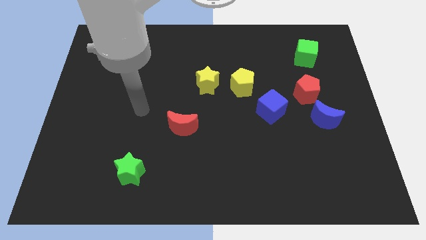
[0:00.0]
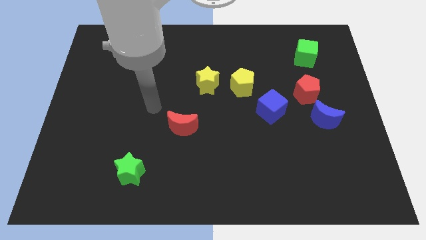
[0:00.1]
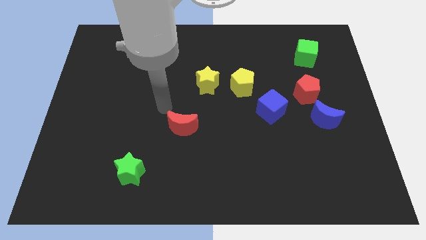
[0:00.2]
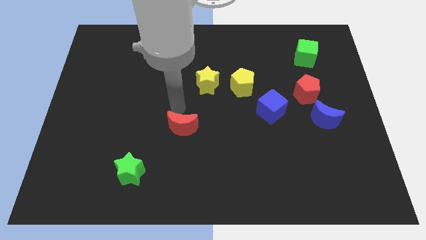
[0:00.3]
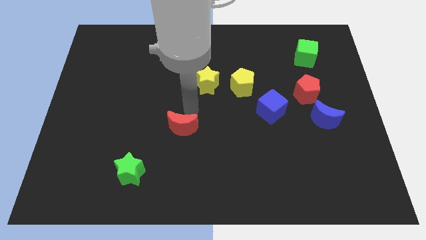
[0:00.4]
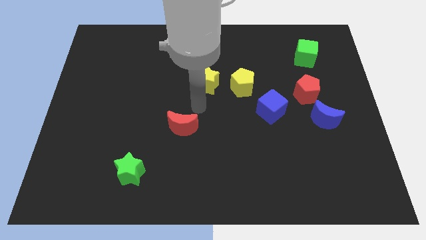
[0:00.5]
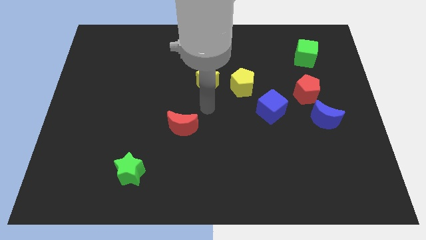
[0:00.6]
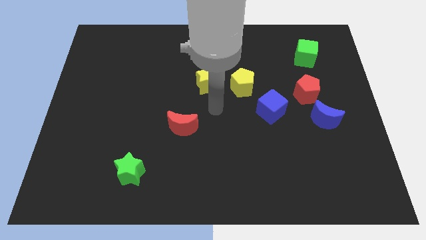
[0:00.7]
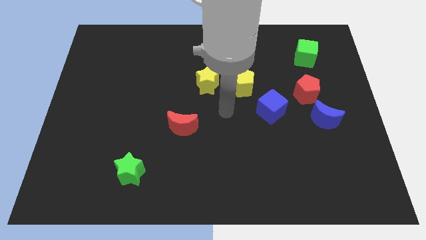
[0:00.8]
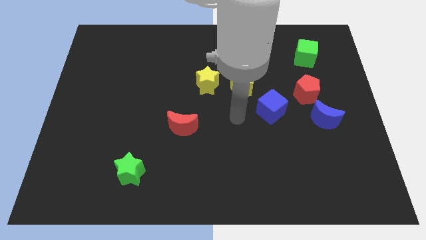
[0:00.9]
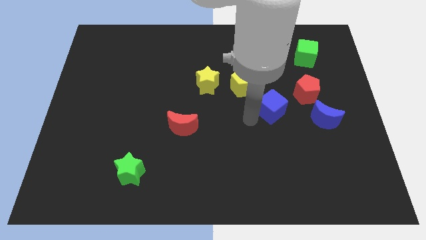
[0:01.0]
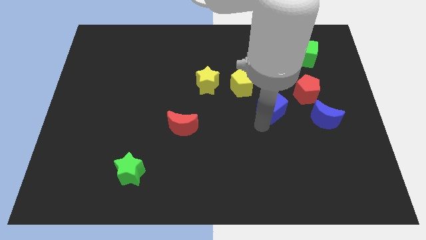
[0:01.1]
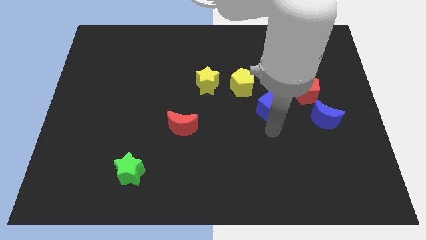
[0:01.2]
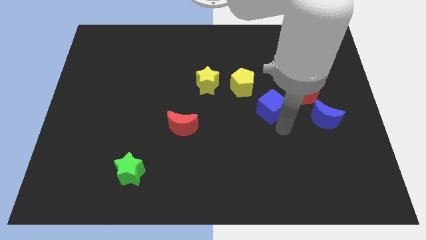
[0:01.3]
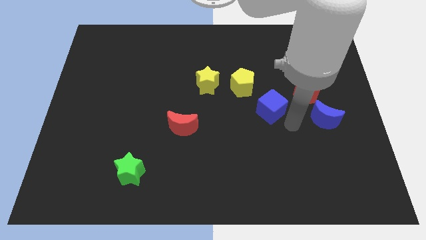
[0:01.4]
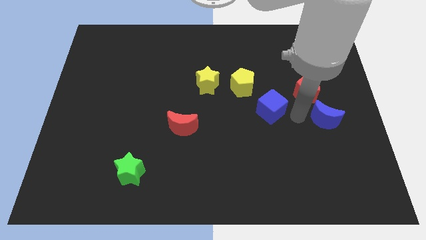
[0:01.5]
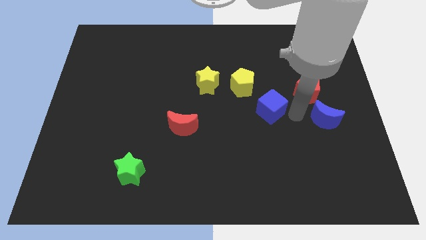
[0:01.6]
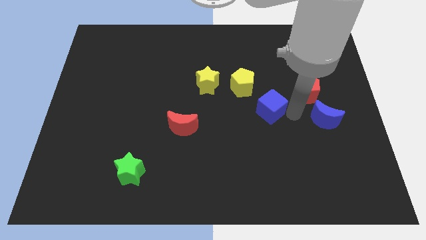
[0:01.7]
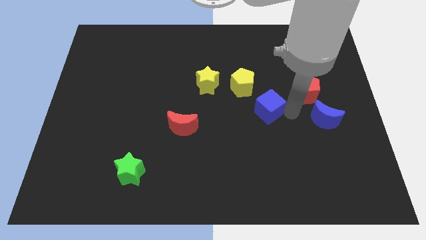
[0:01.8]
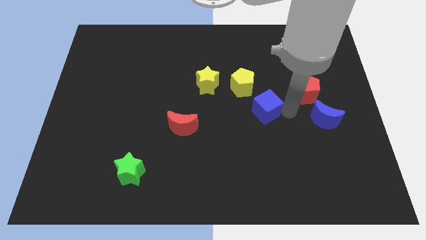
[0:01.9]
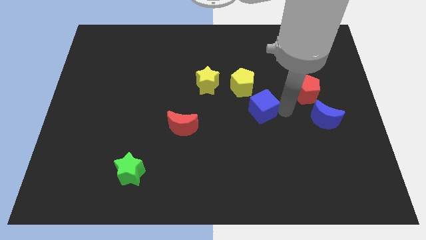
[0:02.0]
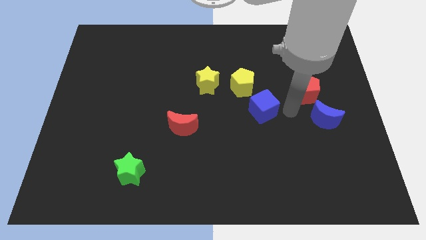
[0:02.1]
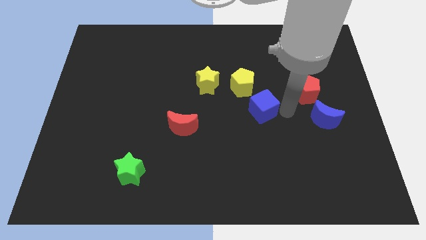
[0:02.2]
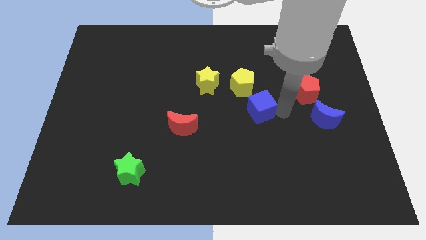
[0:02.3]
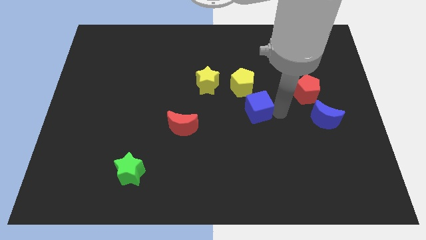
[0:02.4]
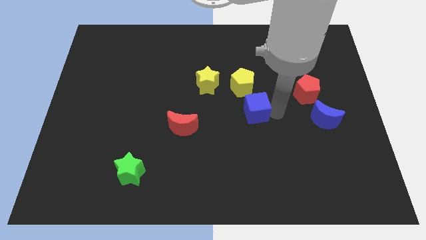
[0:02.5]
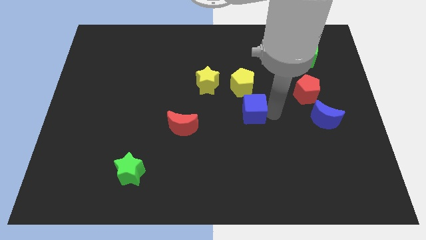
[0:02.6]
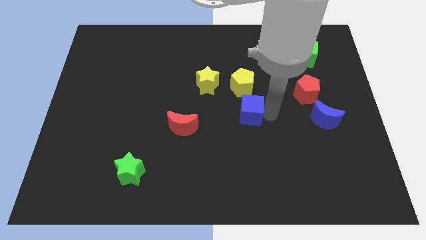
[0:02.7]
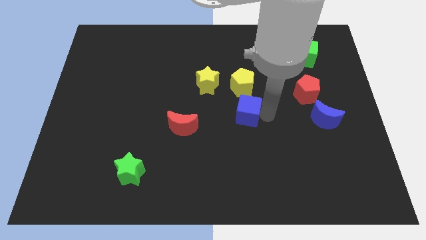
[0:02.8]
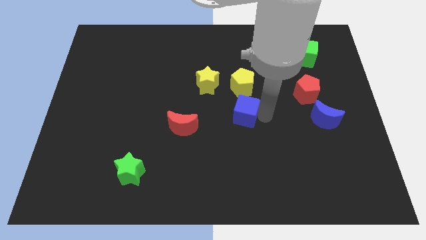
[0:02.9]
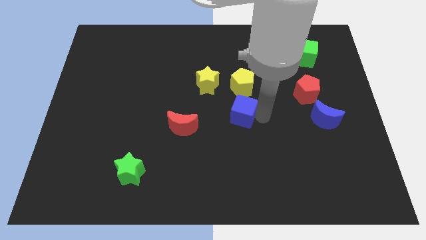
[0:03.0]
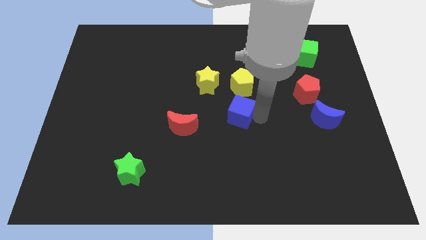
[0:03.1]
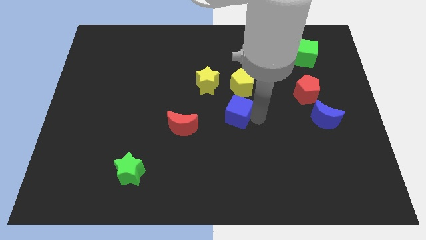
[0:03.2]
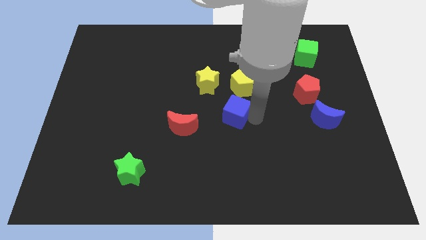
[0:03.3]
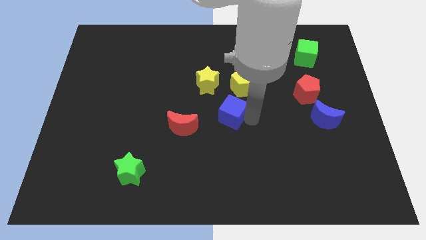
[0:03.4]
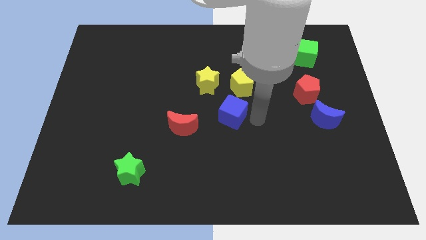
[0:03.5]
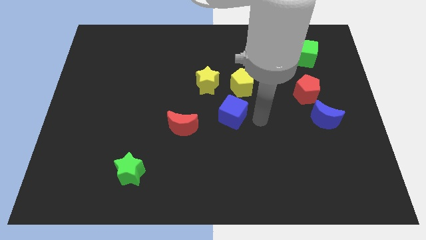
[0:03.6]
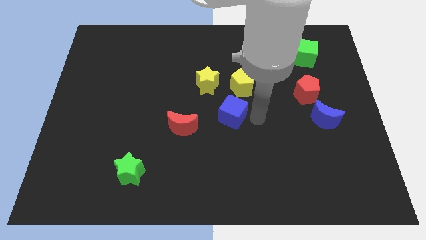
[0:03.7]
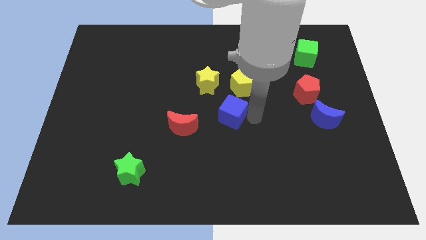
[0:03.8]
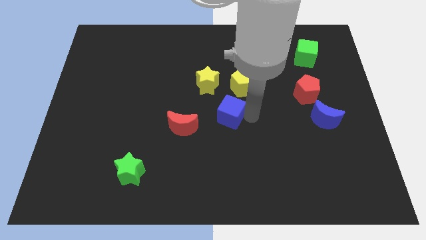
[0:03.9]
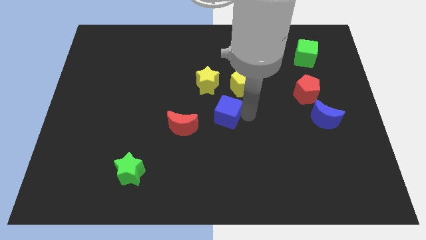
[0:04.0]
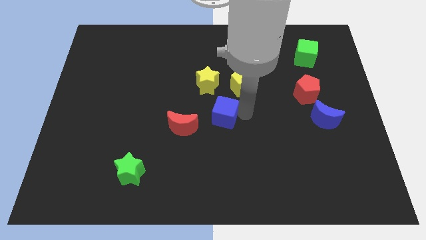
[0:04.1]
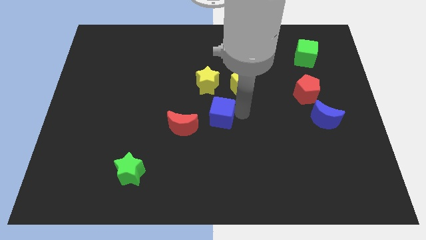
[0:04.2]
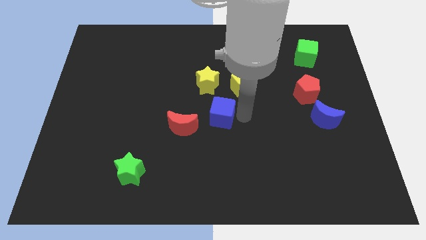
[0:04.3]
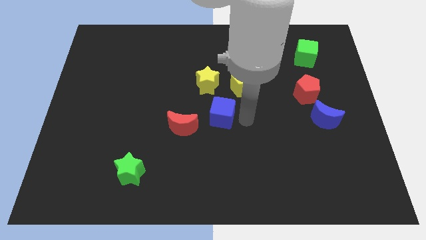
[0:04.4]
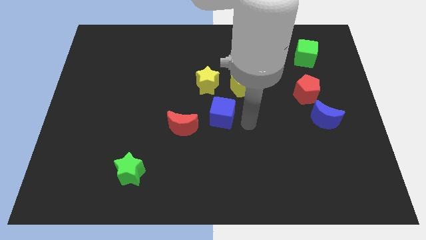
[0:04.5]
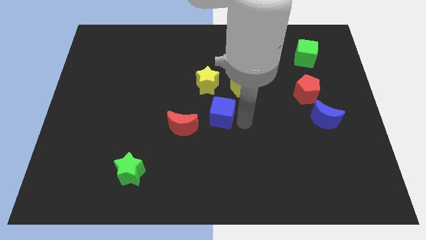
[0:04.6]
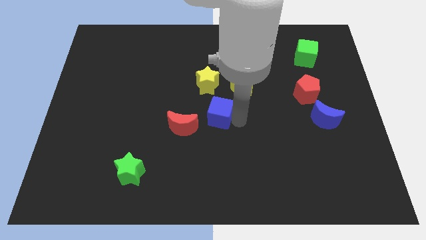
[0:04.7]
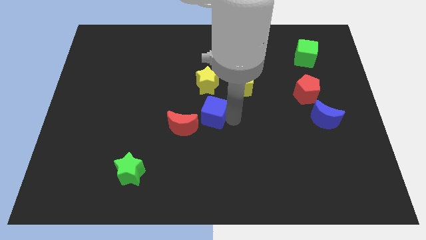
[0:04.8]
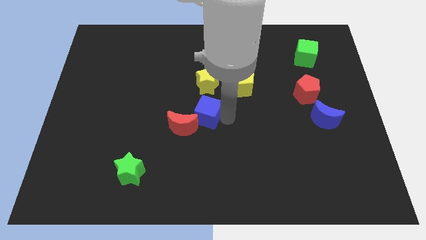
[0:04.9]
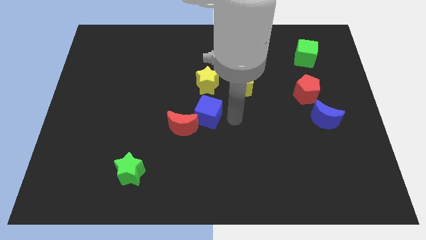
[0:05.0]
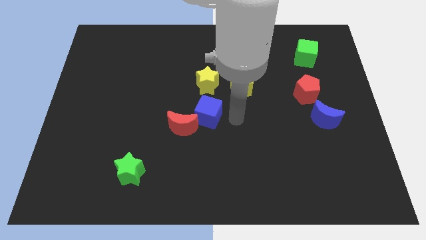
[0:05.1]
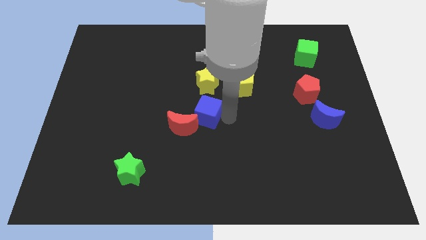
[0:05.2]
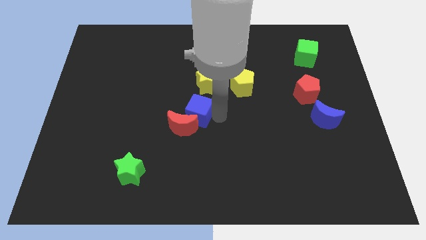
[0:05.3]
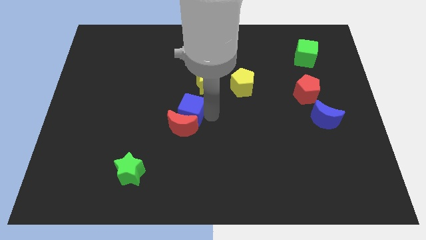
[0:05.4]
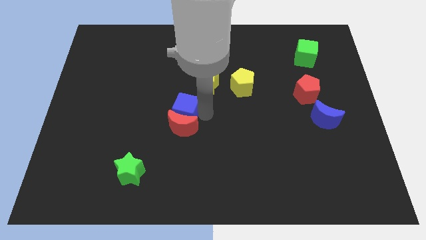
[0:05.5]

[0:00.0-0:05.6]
move the blue cube to the left

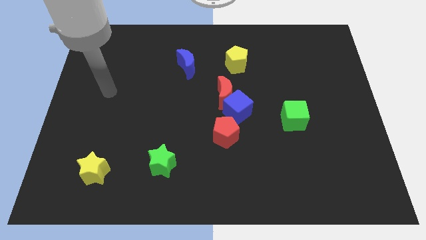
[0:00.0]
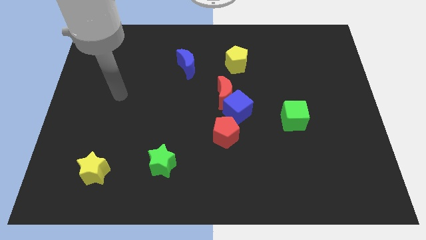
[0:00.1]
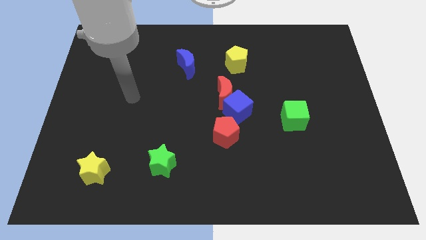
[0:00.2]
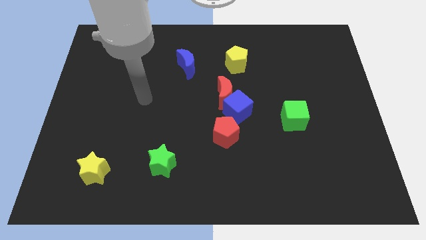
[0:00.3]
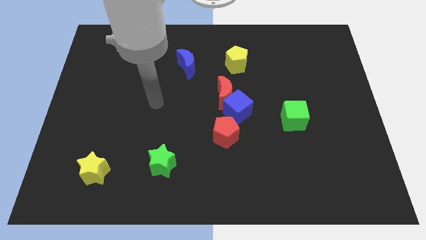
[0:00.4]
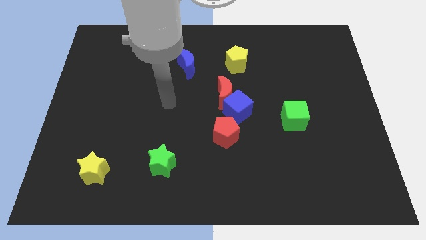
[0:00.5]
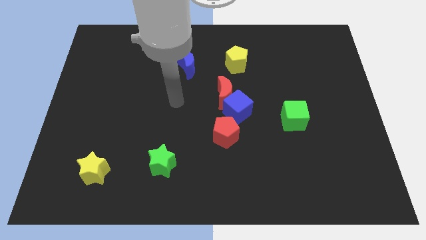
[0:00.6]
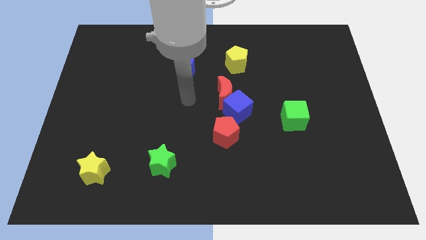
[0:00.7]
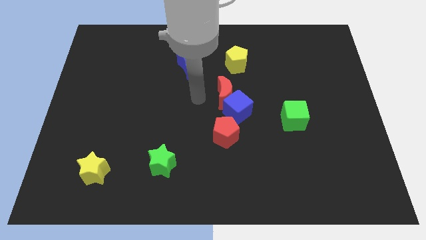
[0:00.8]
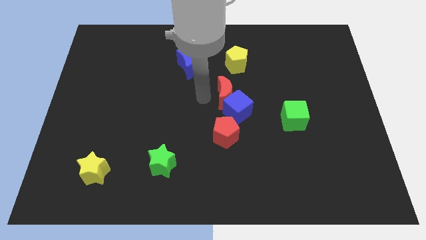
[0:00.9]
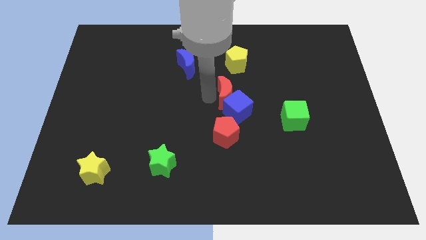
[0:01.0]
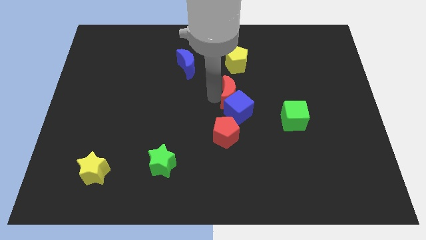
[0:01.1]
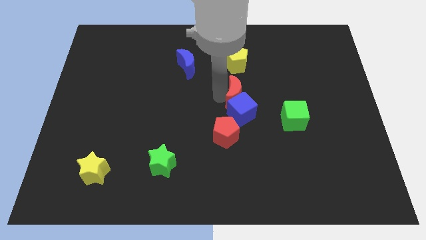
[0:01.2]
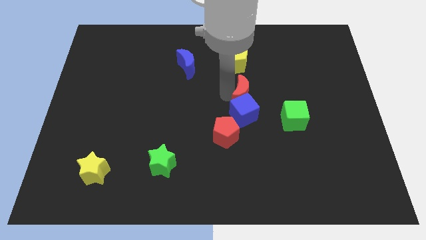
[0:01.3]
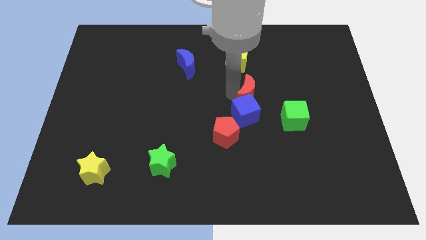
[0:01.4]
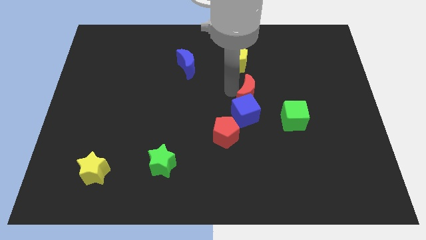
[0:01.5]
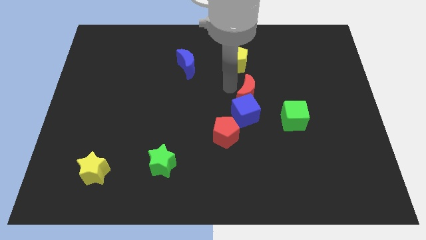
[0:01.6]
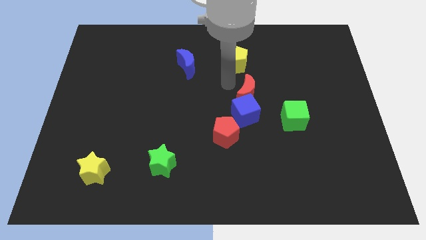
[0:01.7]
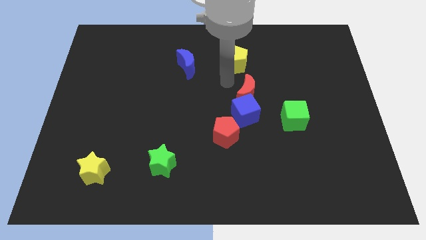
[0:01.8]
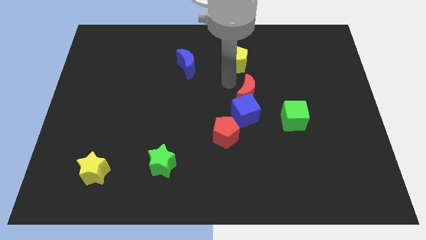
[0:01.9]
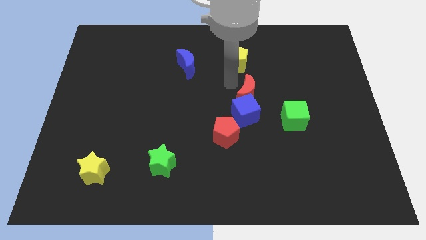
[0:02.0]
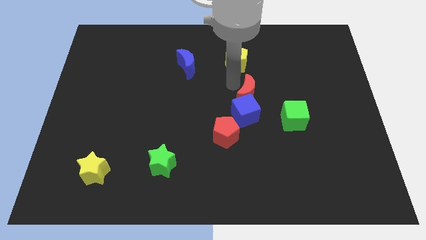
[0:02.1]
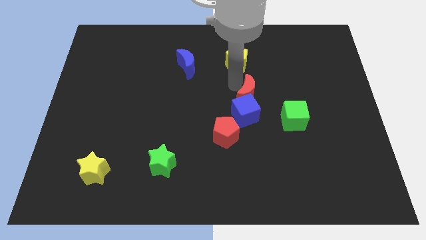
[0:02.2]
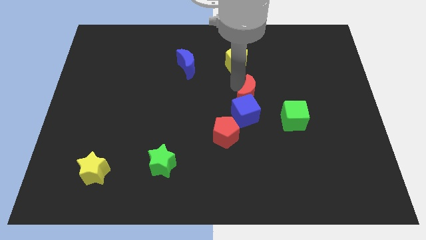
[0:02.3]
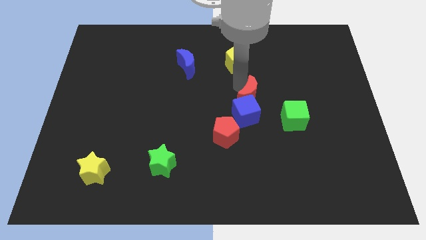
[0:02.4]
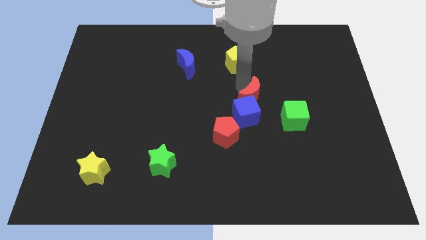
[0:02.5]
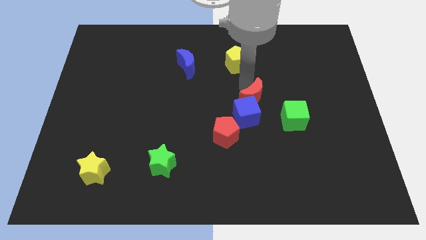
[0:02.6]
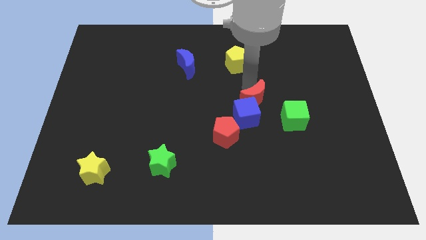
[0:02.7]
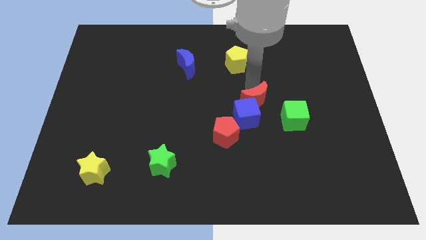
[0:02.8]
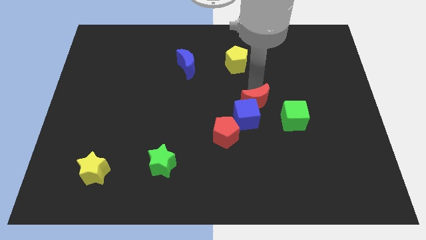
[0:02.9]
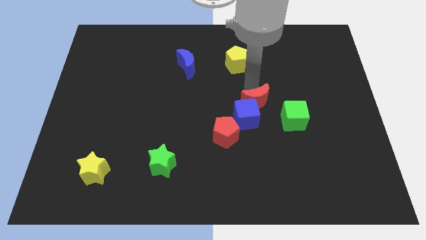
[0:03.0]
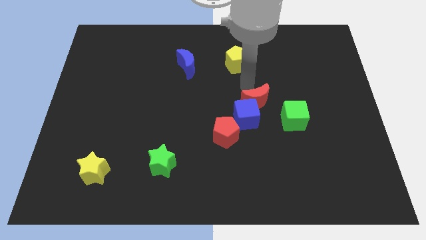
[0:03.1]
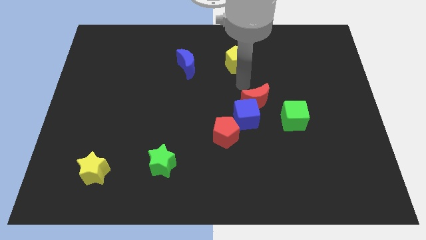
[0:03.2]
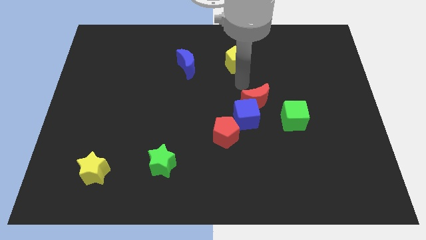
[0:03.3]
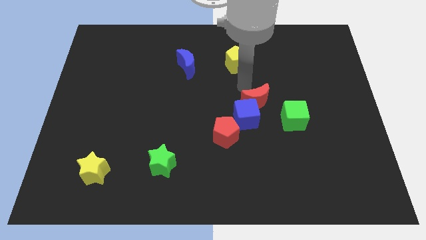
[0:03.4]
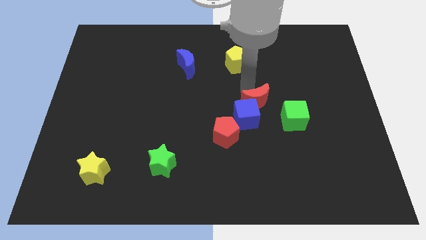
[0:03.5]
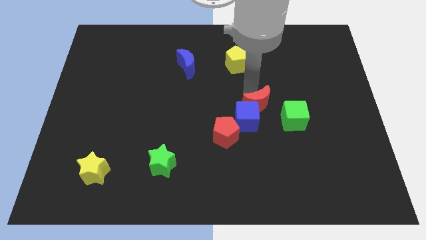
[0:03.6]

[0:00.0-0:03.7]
slide the red moon down and to the right diagonally a little
